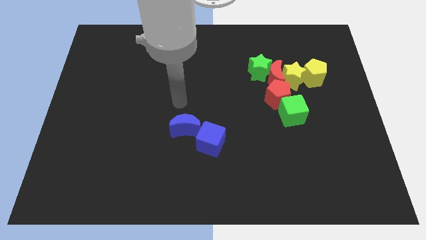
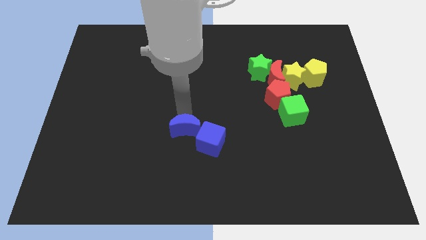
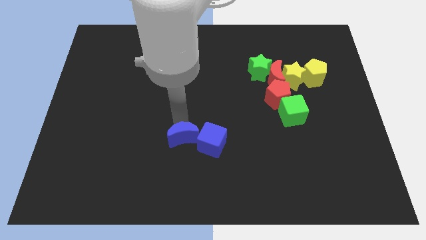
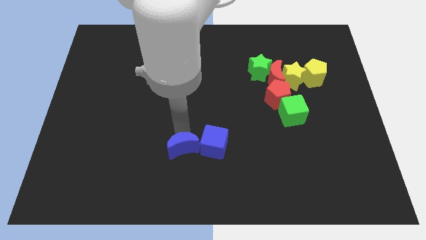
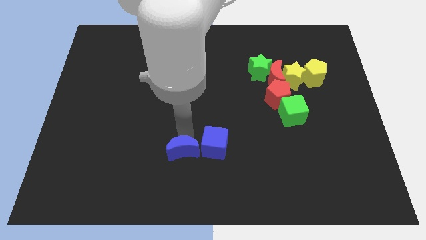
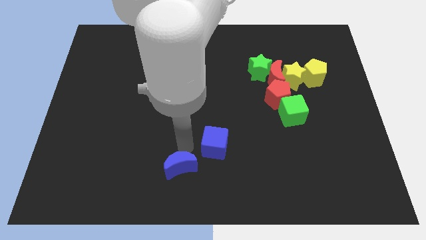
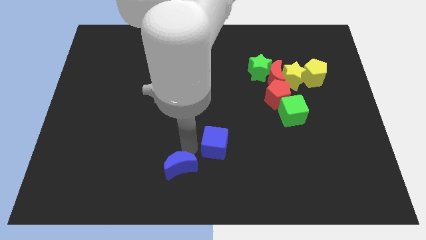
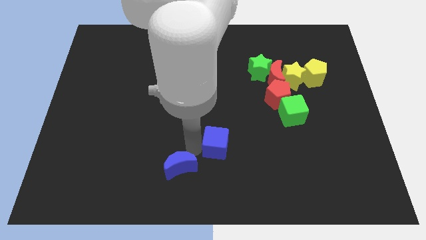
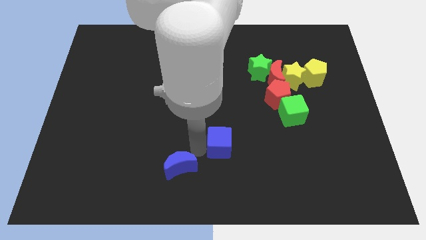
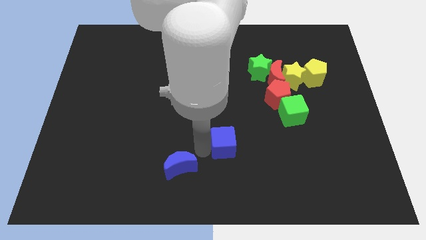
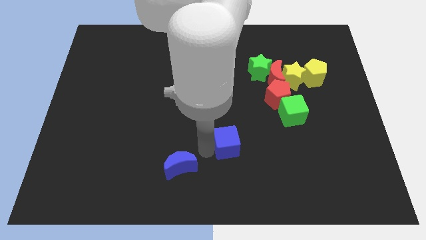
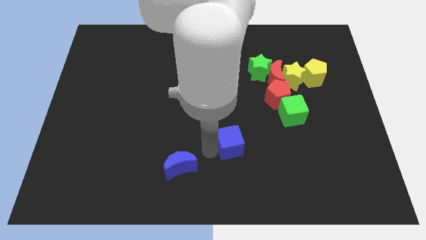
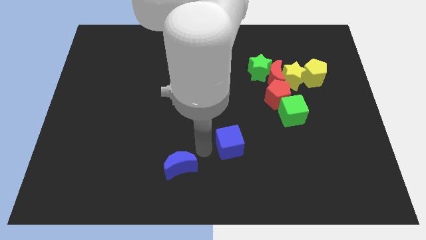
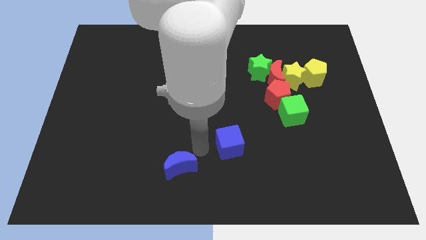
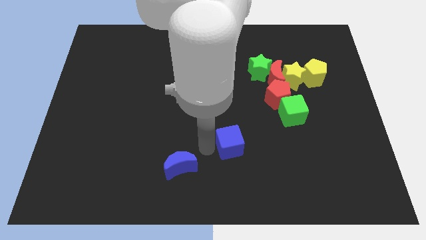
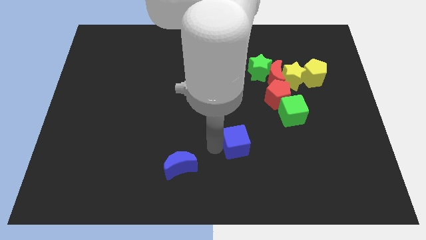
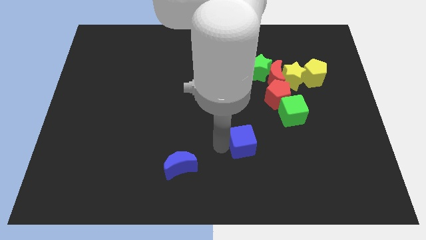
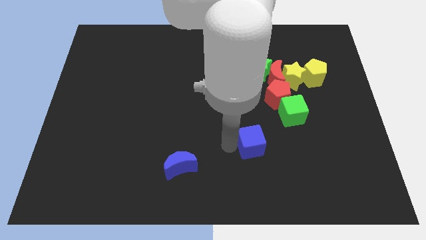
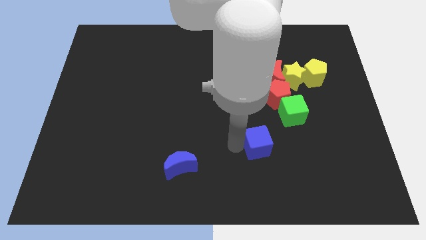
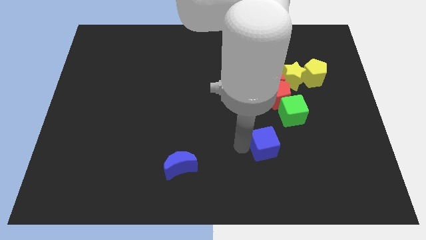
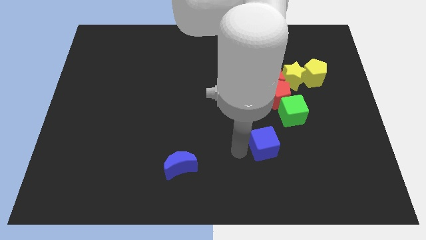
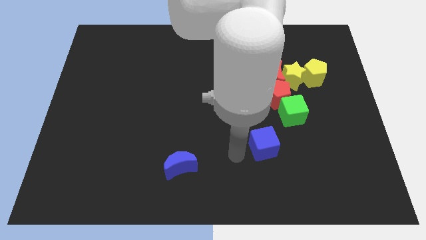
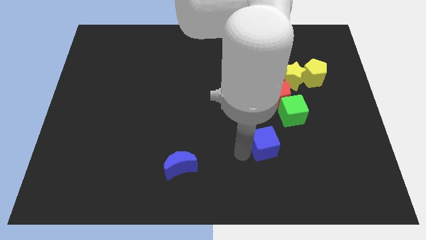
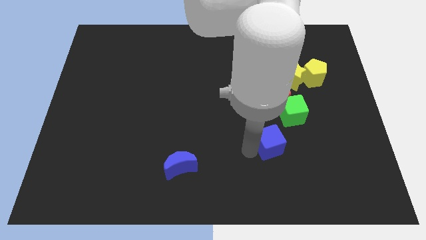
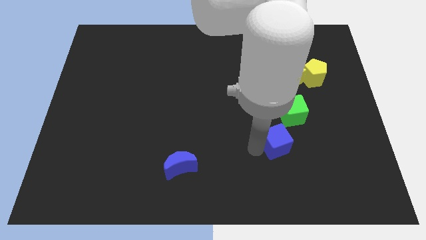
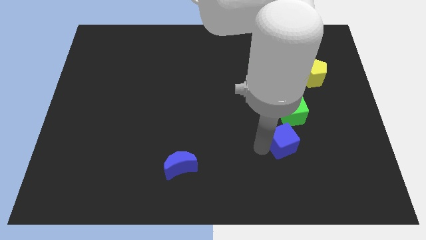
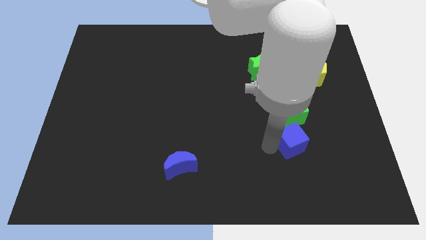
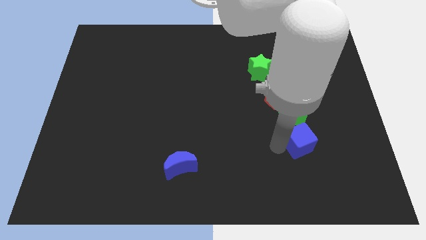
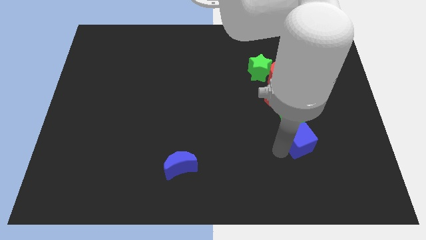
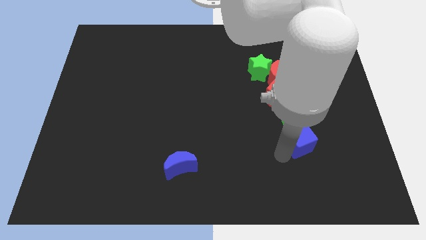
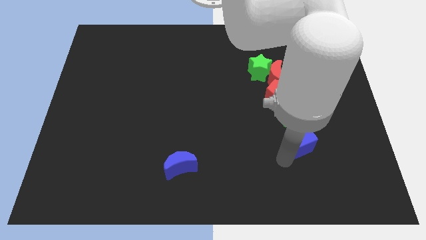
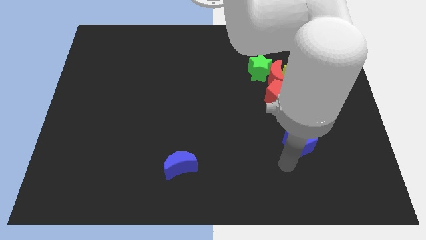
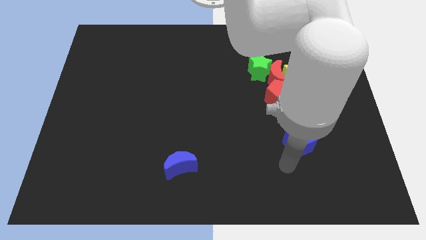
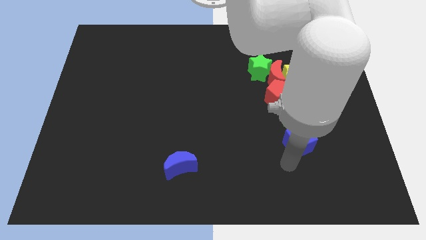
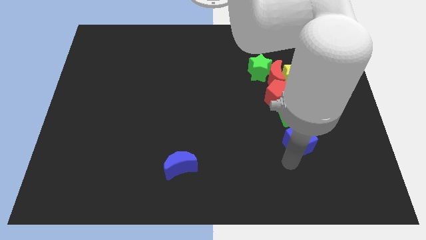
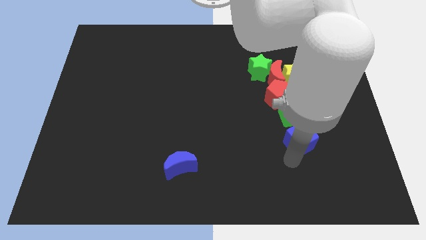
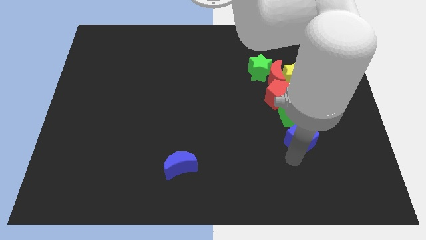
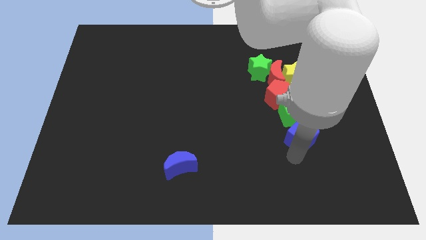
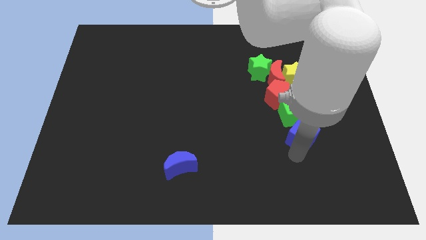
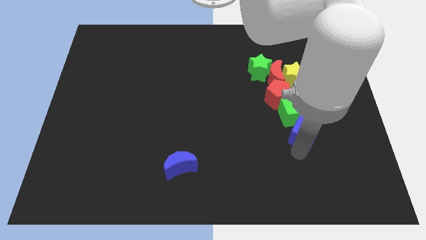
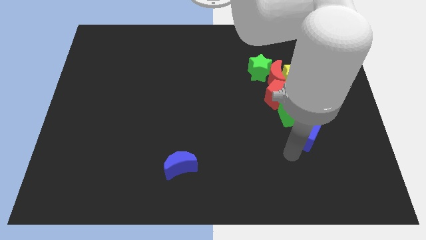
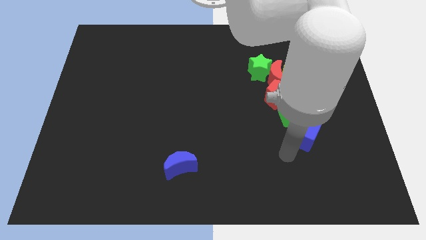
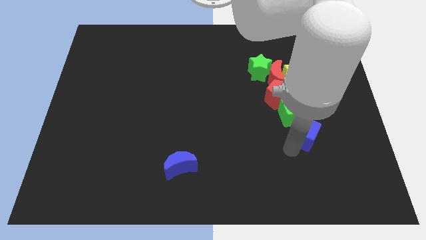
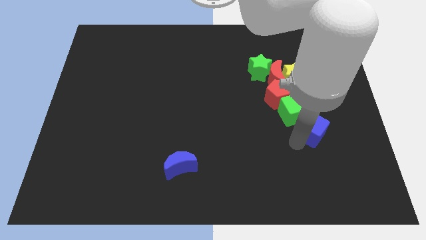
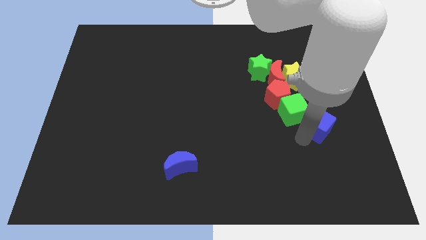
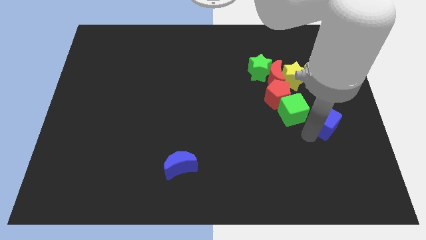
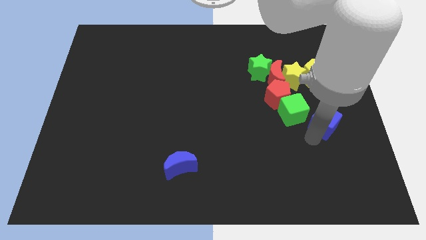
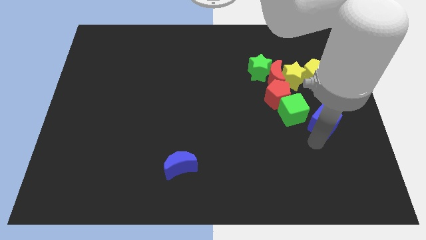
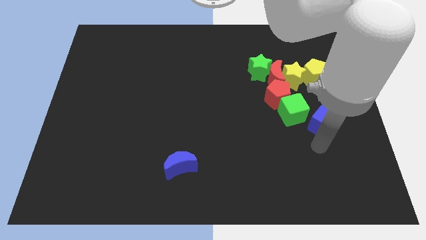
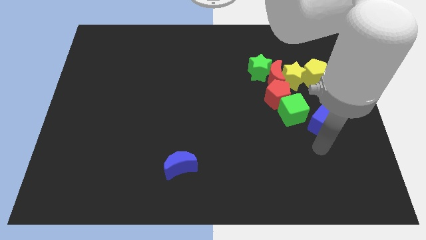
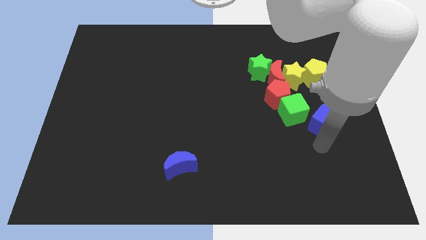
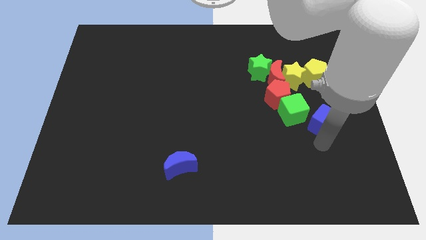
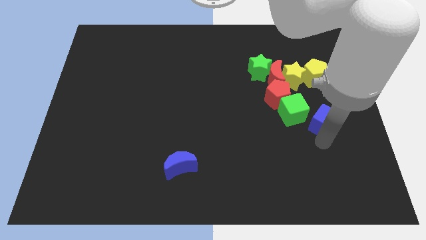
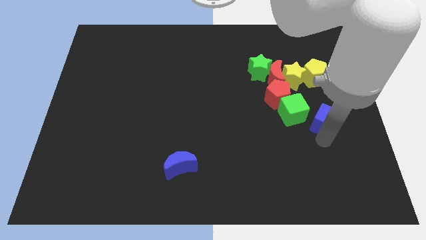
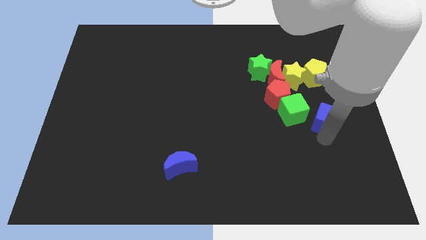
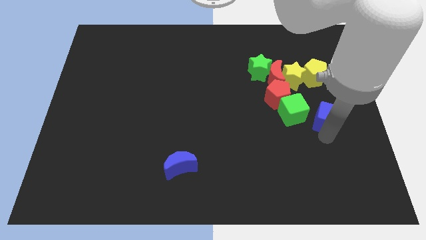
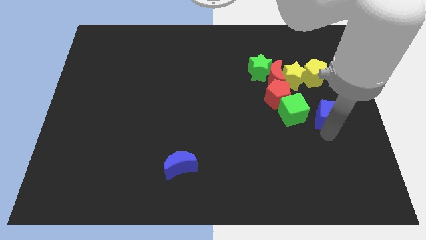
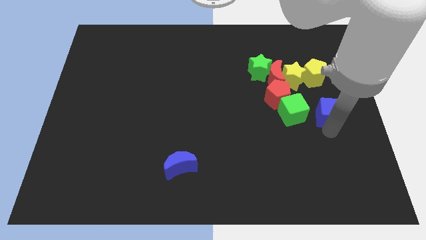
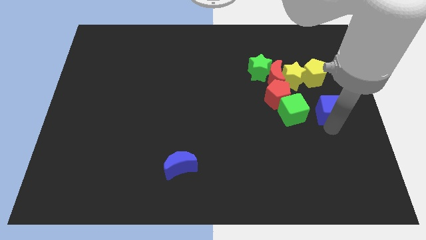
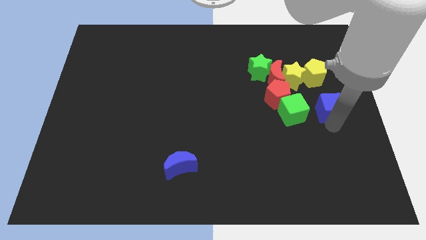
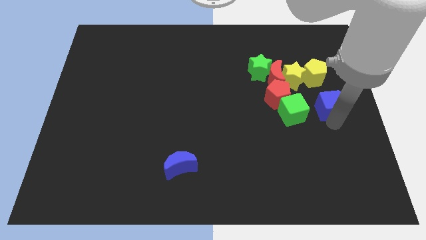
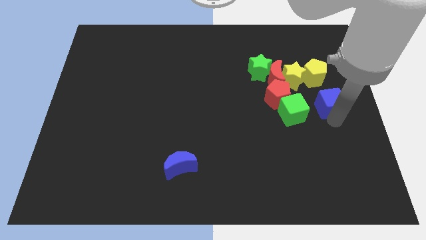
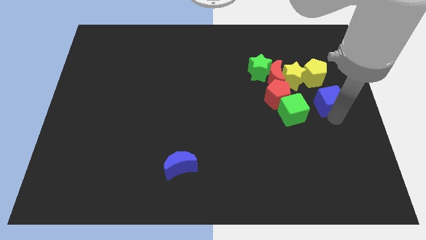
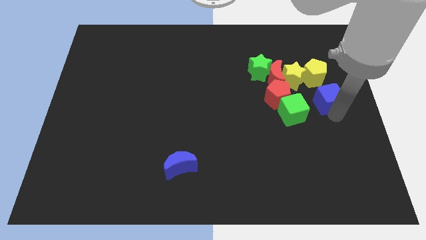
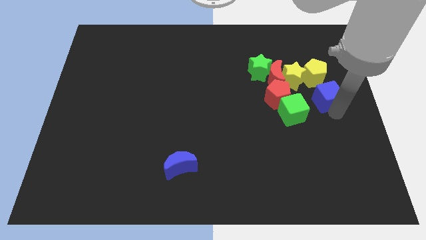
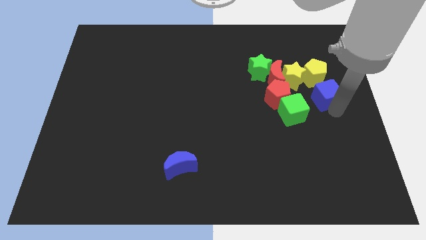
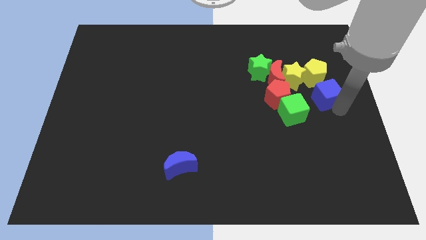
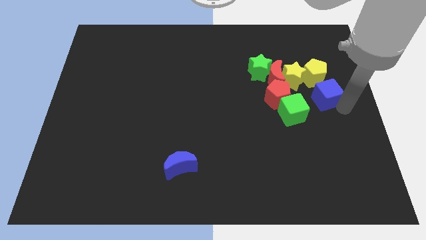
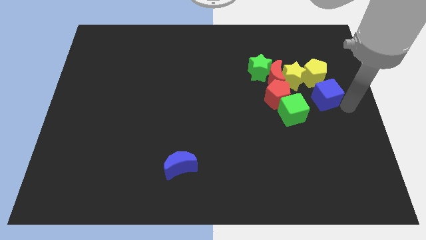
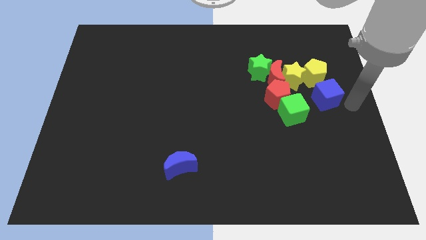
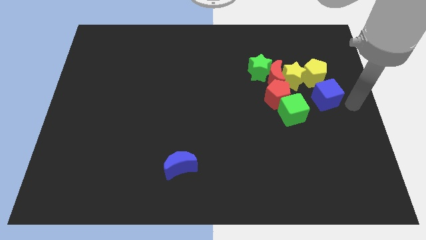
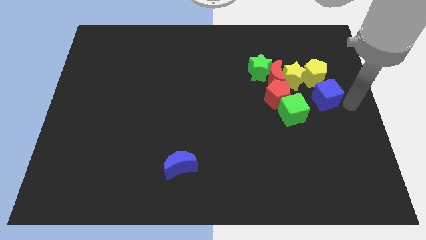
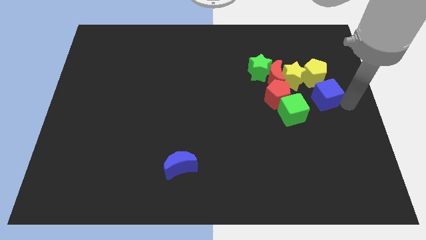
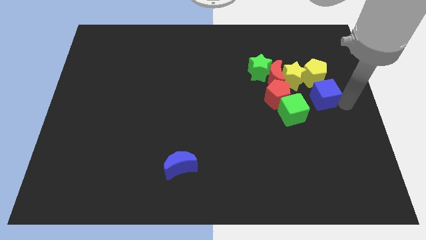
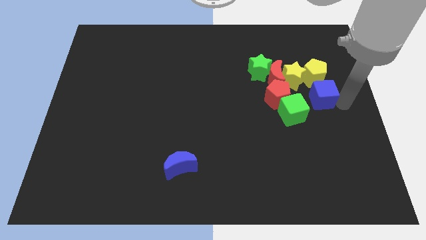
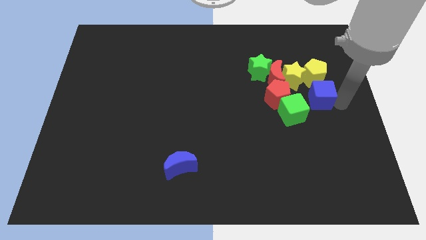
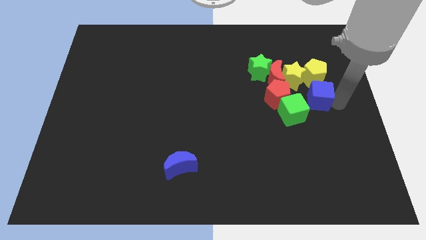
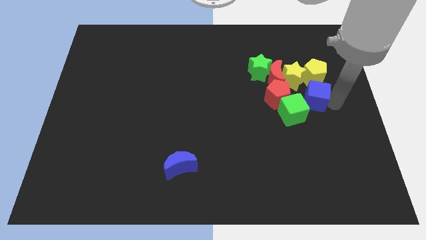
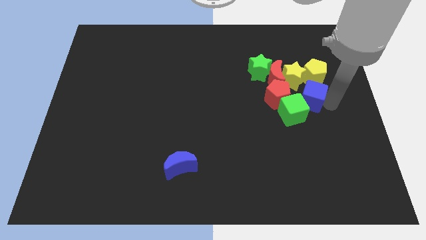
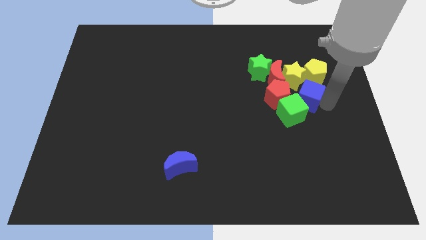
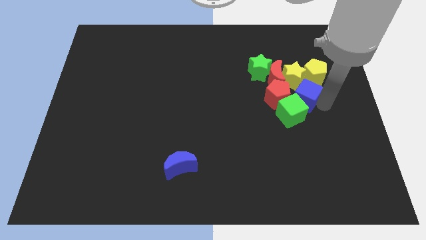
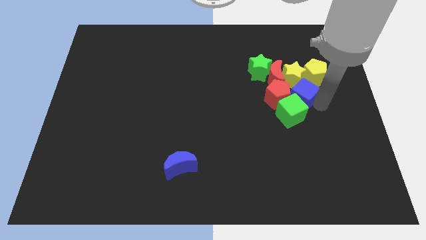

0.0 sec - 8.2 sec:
slide the blue cube to the yellow star
